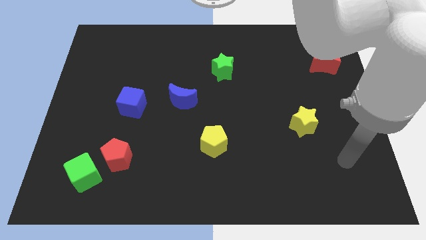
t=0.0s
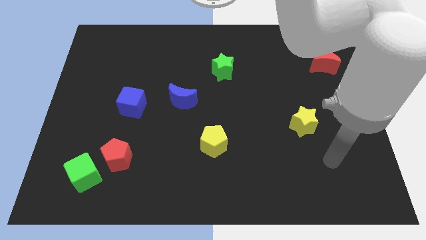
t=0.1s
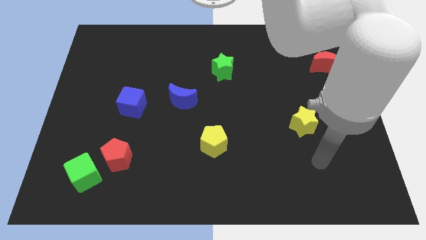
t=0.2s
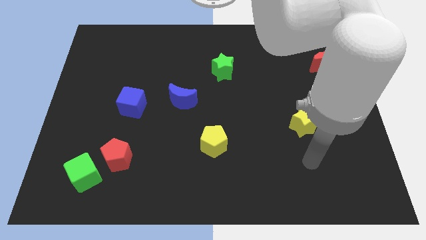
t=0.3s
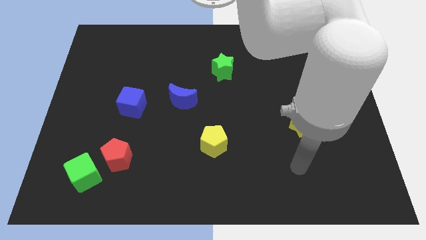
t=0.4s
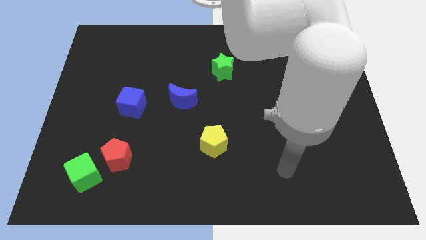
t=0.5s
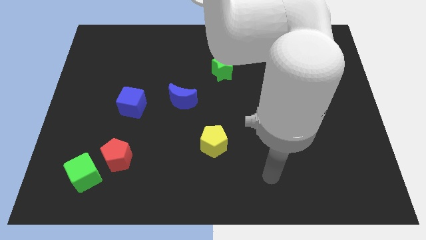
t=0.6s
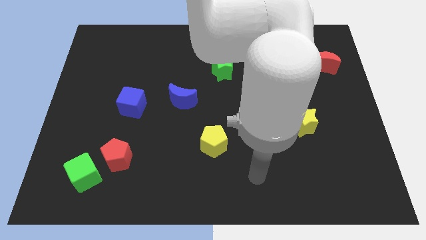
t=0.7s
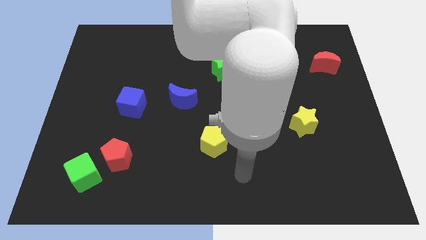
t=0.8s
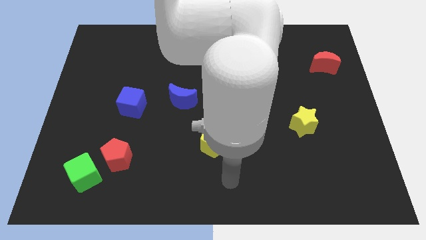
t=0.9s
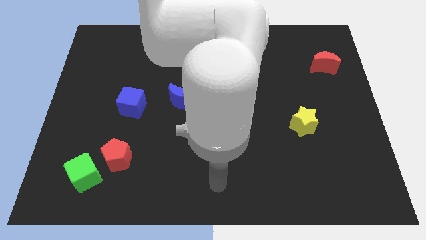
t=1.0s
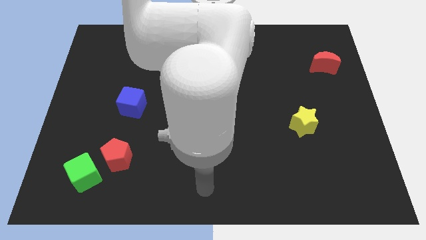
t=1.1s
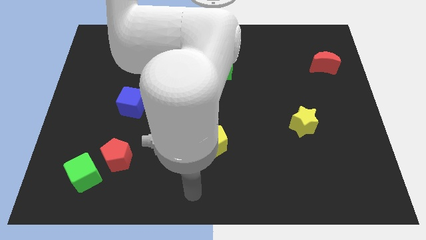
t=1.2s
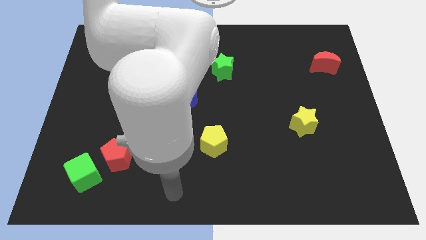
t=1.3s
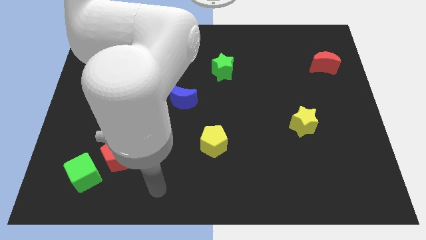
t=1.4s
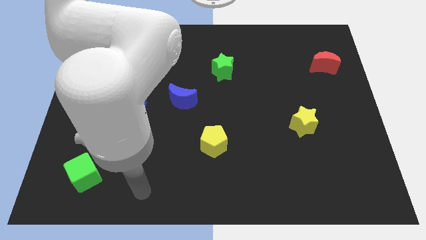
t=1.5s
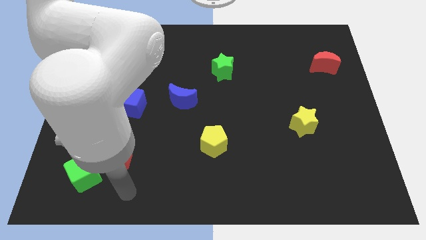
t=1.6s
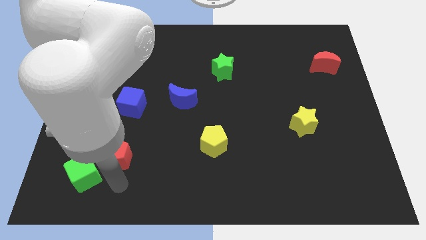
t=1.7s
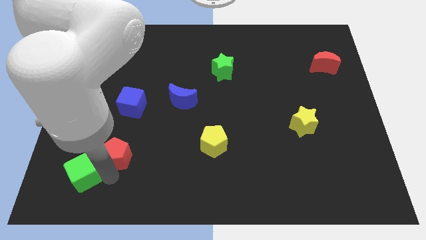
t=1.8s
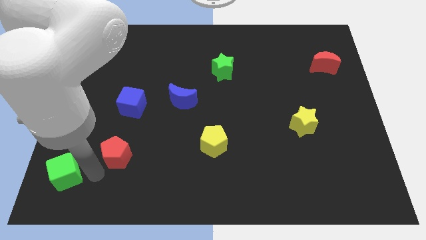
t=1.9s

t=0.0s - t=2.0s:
move the red pentagon away from the green cube

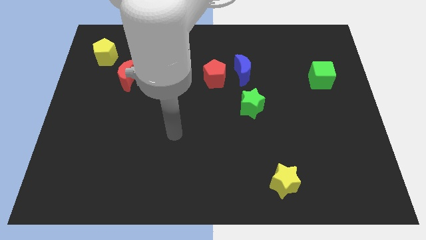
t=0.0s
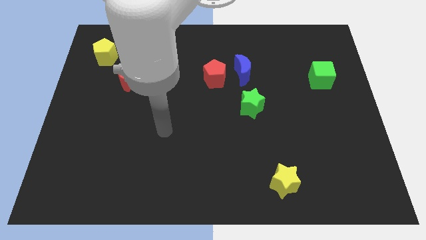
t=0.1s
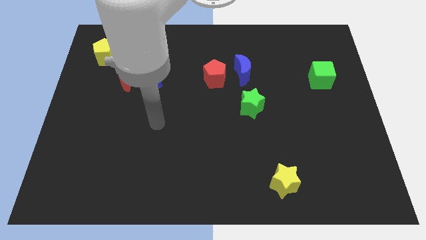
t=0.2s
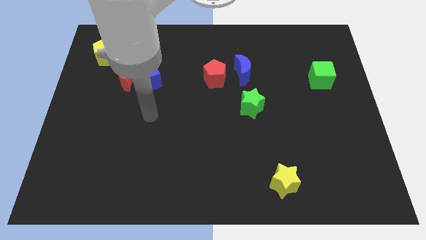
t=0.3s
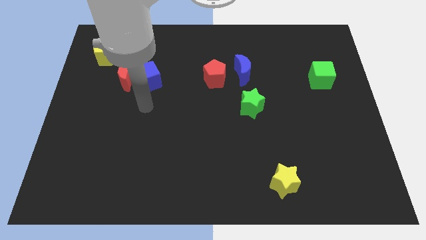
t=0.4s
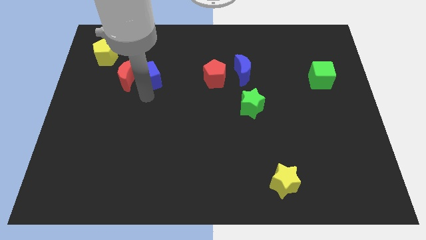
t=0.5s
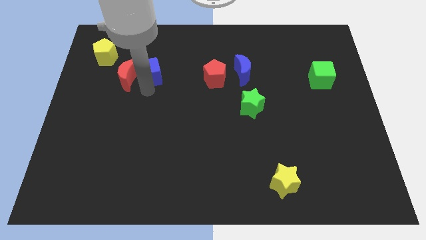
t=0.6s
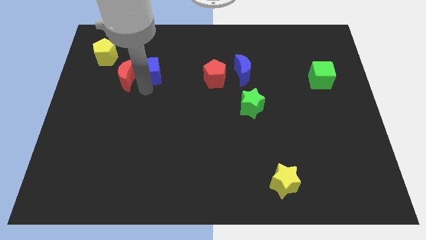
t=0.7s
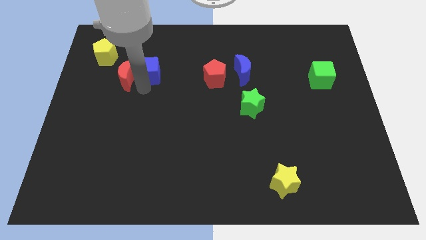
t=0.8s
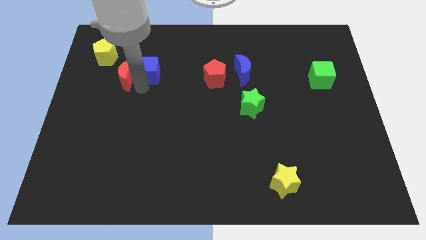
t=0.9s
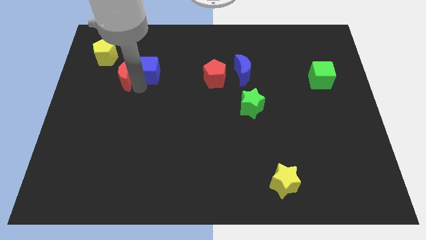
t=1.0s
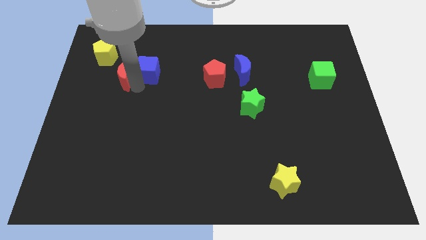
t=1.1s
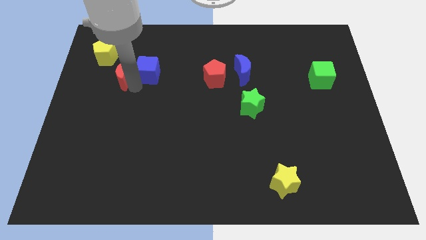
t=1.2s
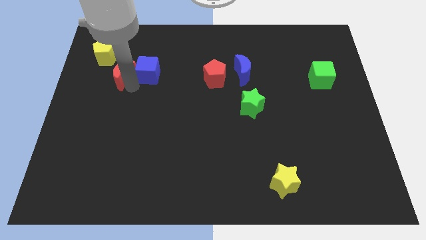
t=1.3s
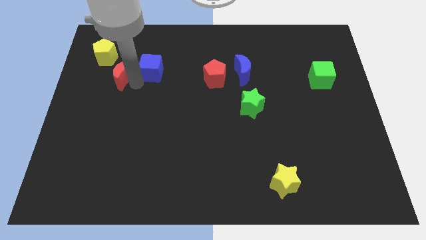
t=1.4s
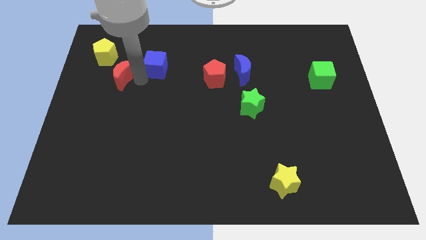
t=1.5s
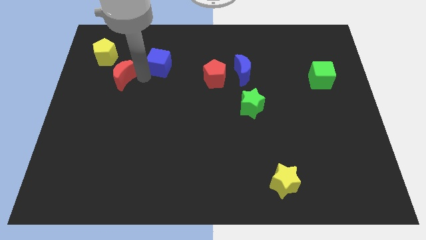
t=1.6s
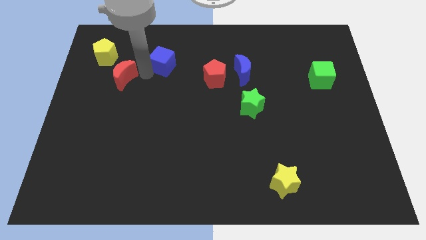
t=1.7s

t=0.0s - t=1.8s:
pull the red moon apart from the blue cube

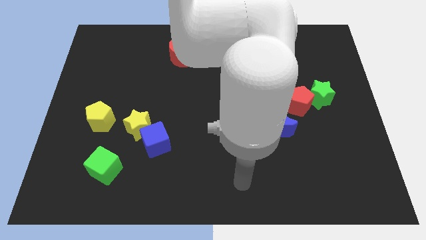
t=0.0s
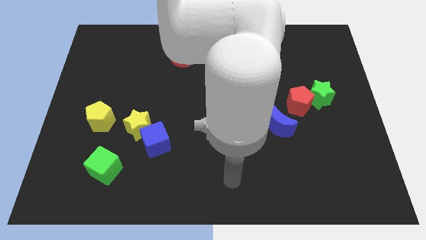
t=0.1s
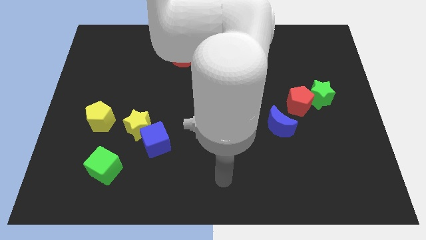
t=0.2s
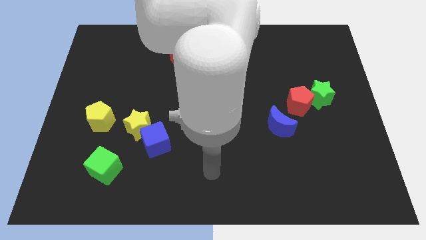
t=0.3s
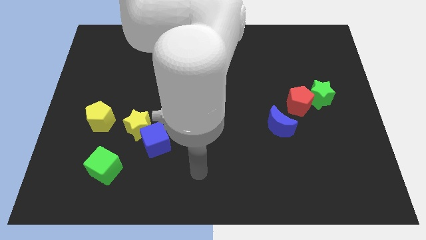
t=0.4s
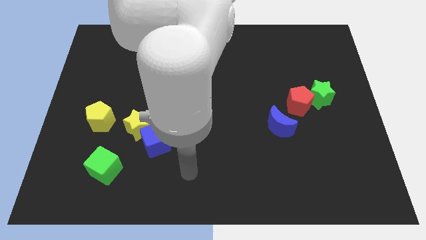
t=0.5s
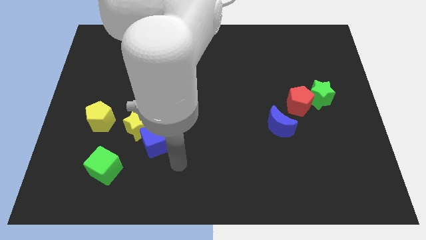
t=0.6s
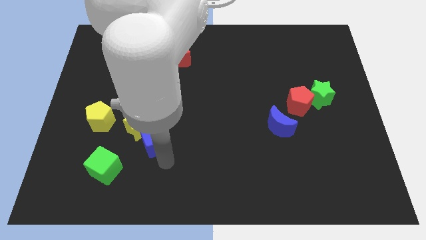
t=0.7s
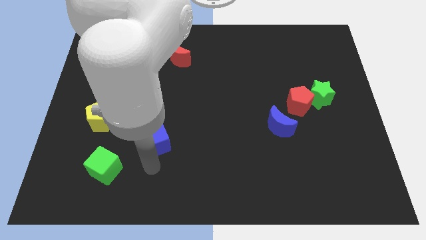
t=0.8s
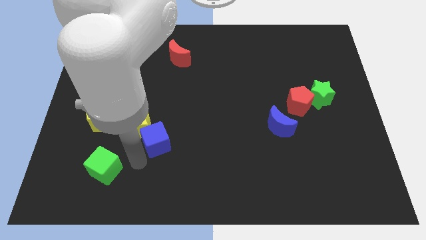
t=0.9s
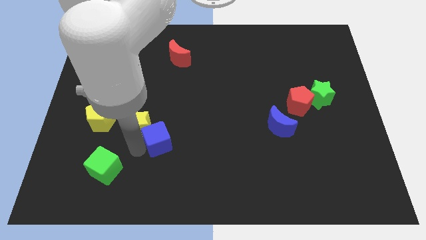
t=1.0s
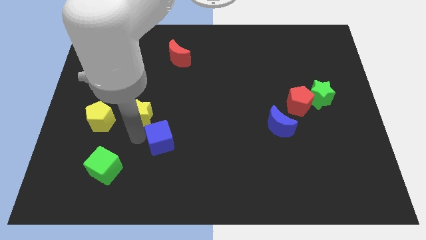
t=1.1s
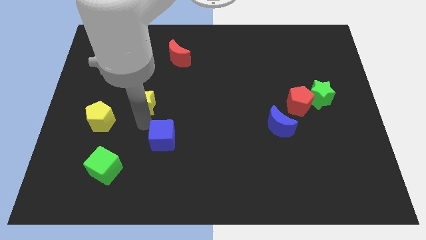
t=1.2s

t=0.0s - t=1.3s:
move the blue cube away from the yellow star

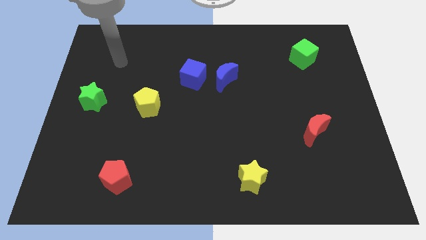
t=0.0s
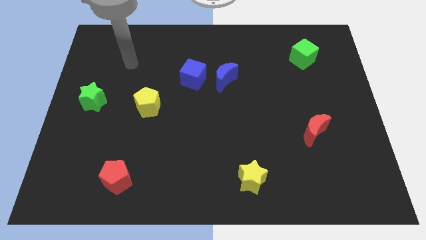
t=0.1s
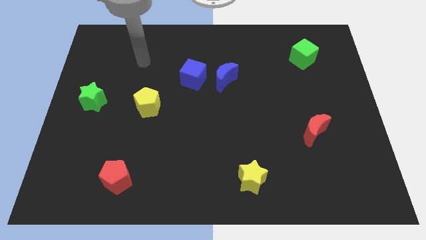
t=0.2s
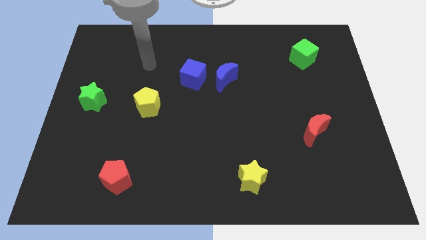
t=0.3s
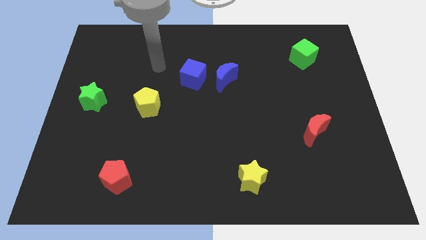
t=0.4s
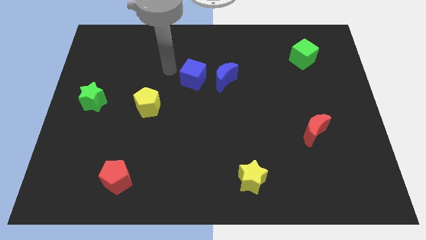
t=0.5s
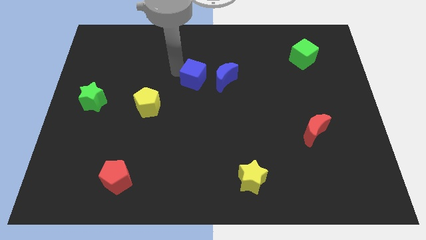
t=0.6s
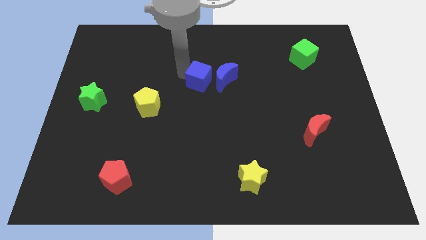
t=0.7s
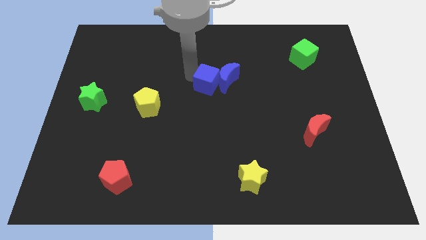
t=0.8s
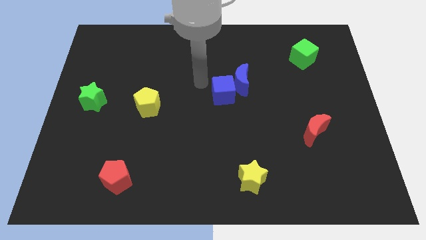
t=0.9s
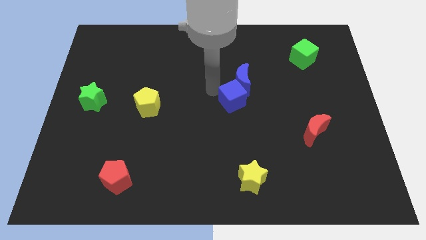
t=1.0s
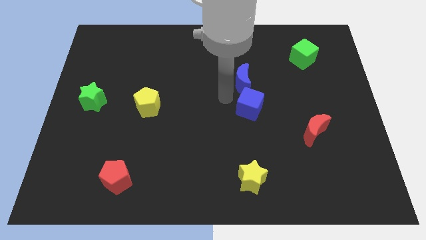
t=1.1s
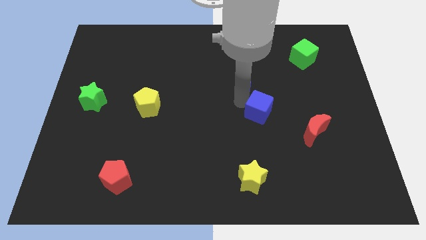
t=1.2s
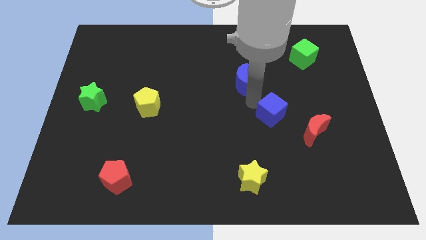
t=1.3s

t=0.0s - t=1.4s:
move the blue moon away from the blue cube

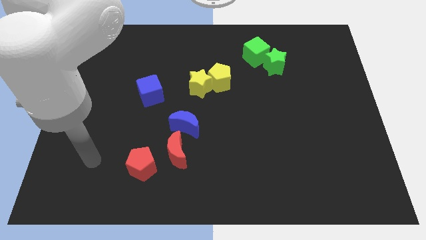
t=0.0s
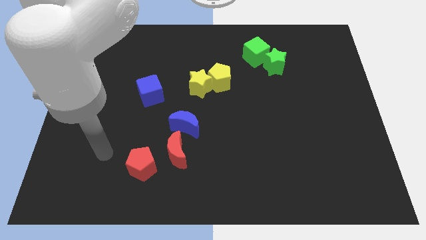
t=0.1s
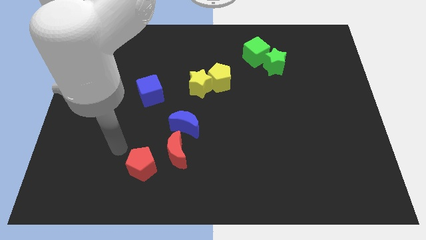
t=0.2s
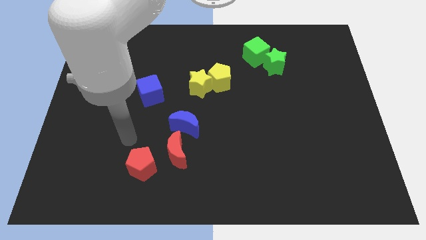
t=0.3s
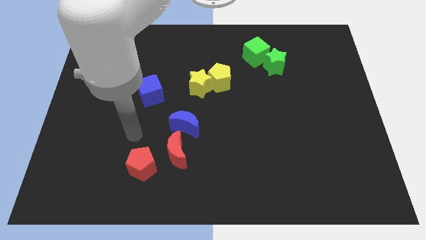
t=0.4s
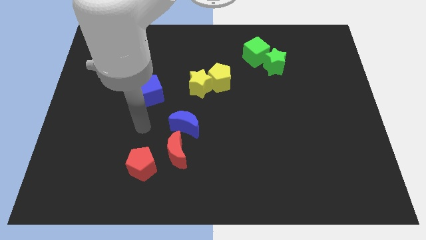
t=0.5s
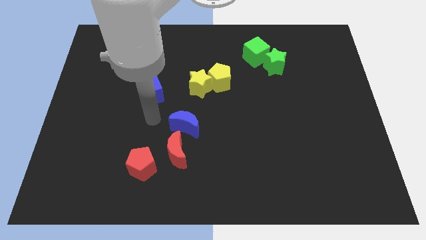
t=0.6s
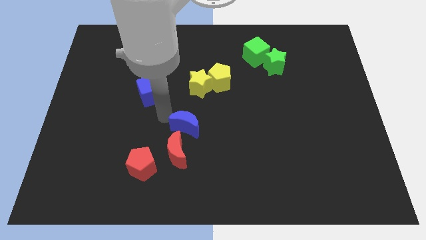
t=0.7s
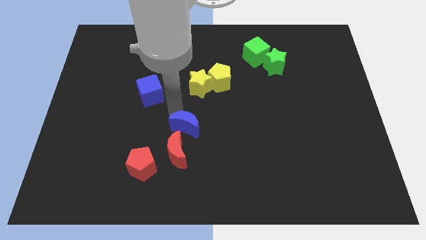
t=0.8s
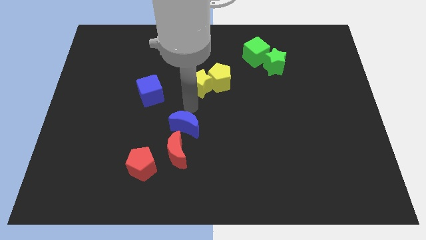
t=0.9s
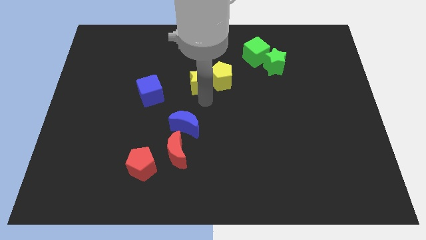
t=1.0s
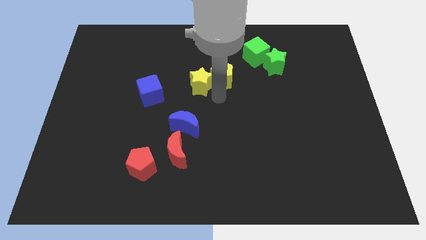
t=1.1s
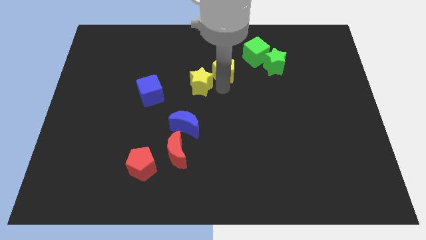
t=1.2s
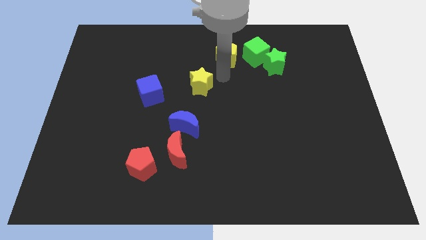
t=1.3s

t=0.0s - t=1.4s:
pull the yellow star apart from the yellow pentagon

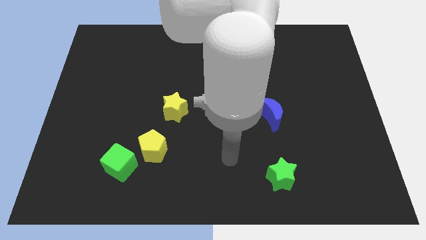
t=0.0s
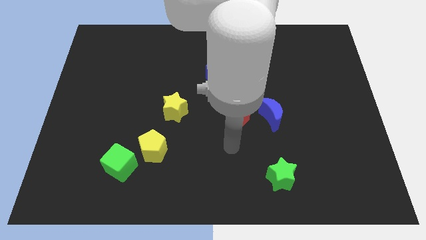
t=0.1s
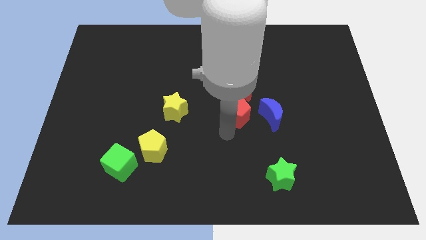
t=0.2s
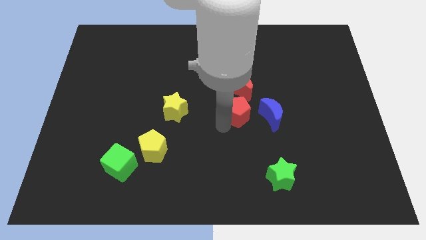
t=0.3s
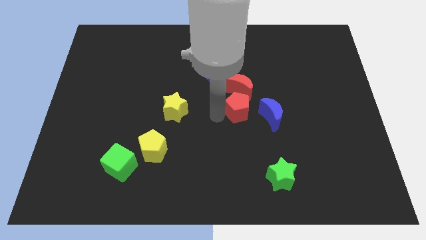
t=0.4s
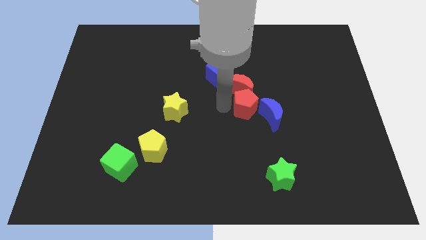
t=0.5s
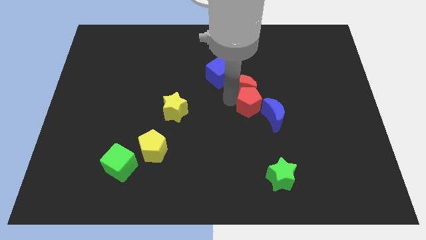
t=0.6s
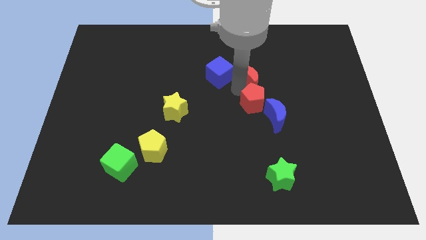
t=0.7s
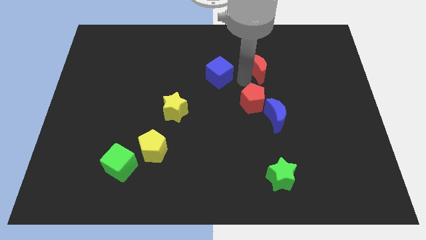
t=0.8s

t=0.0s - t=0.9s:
pull the blue cube apart from the red moon

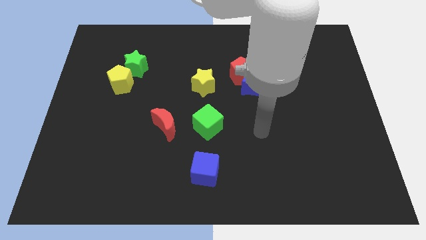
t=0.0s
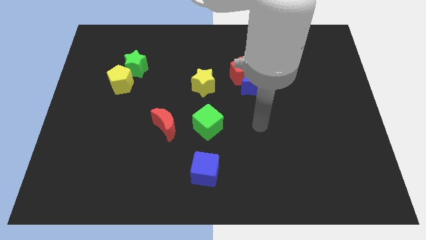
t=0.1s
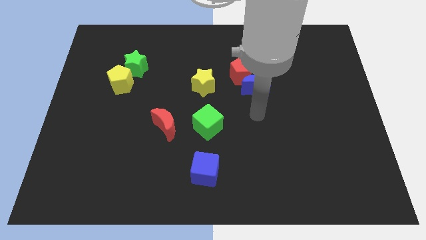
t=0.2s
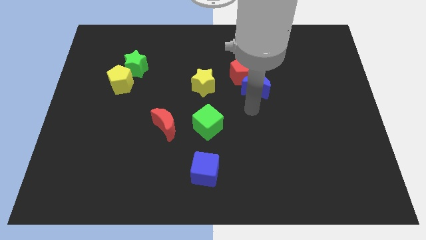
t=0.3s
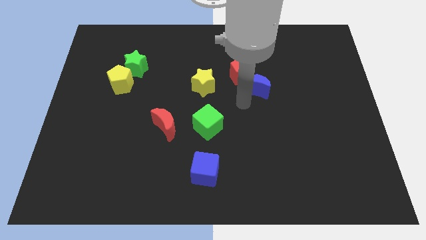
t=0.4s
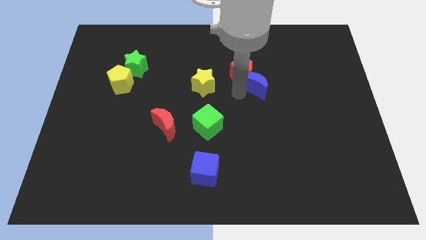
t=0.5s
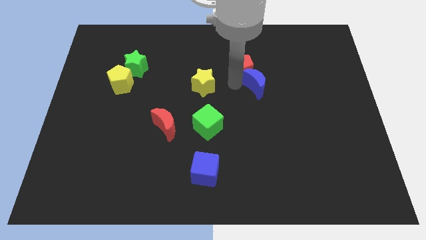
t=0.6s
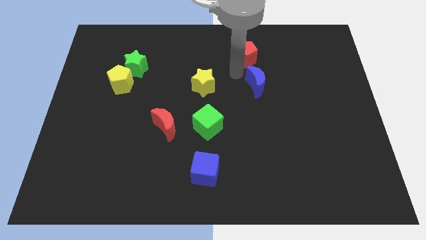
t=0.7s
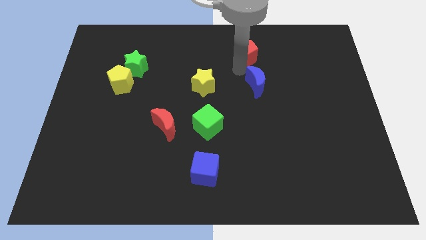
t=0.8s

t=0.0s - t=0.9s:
move the blue moon away from the red pentagon
